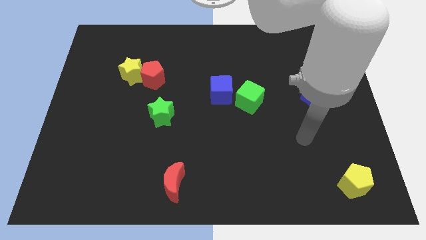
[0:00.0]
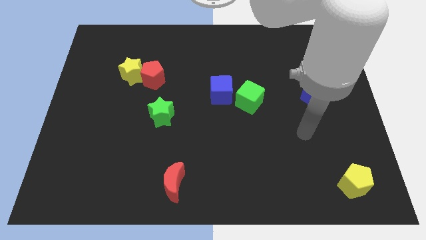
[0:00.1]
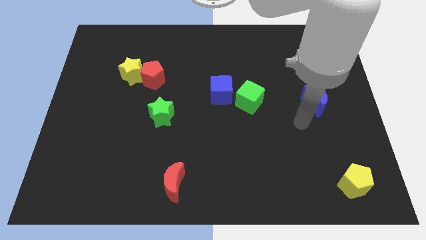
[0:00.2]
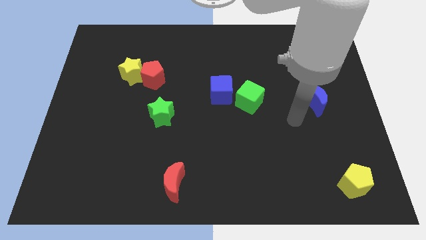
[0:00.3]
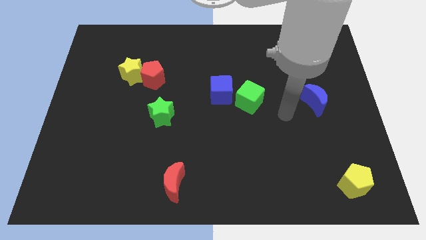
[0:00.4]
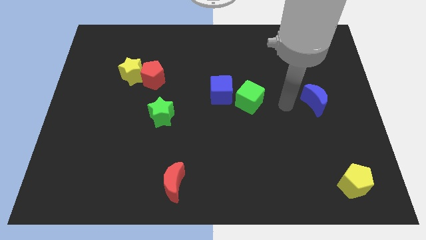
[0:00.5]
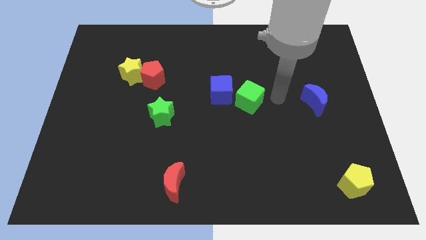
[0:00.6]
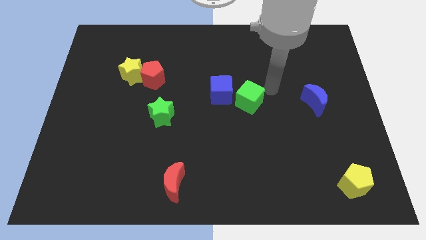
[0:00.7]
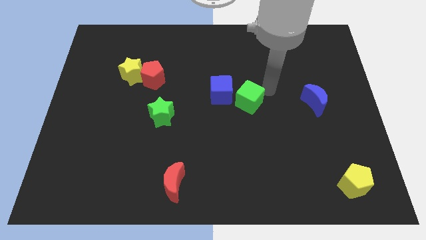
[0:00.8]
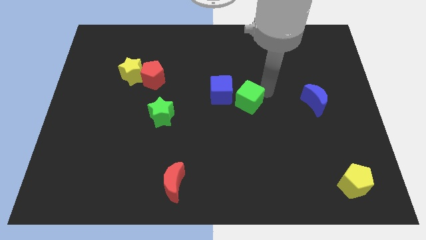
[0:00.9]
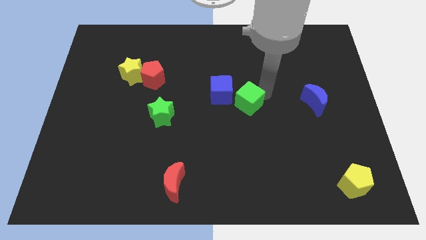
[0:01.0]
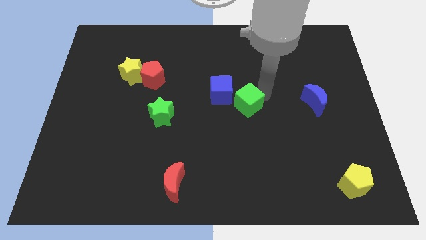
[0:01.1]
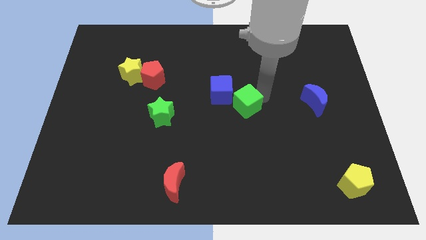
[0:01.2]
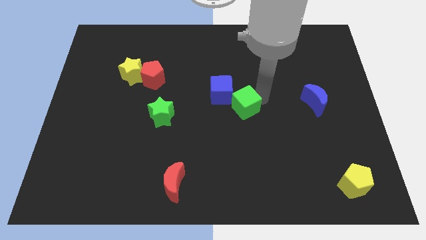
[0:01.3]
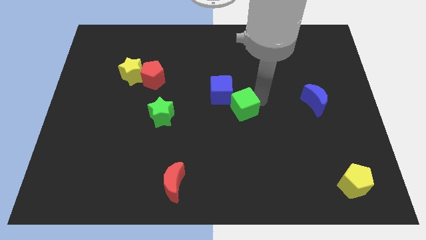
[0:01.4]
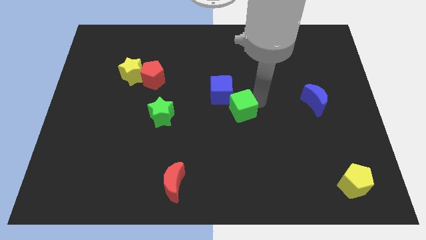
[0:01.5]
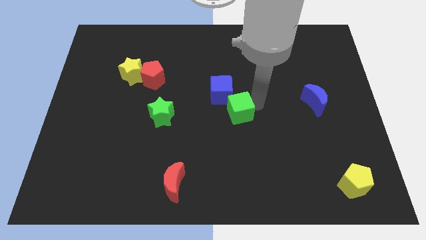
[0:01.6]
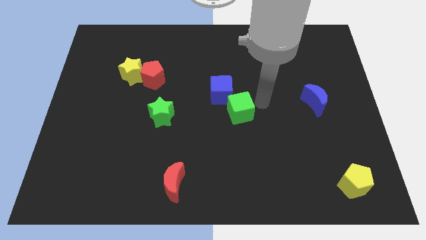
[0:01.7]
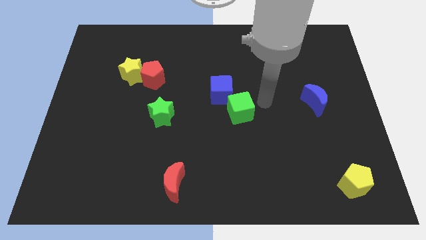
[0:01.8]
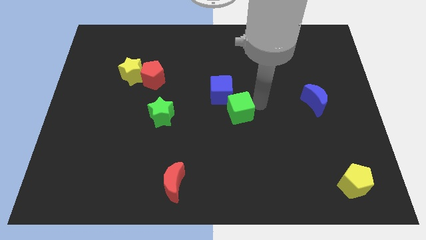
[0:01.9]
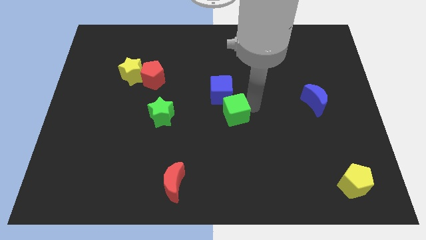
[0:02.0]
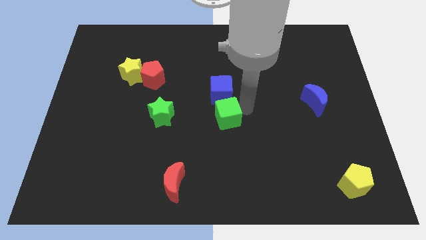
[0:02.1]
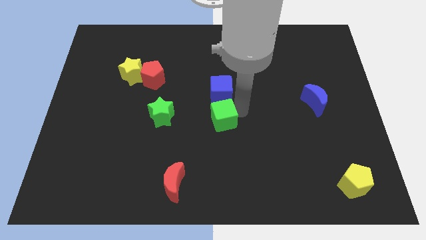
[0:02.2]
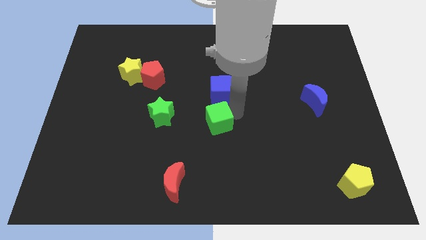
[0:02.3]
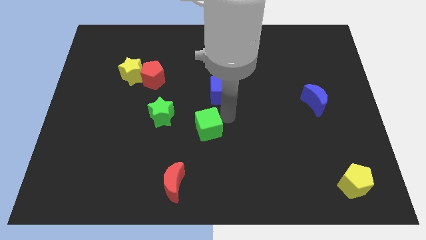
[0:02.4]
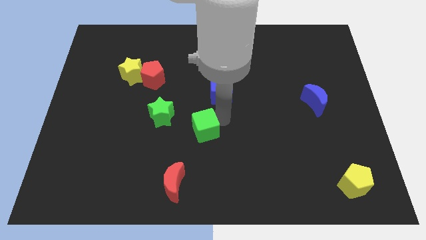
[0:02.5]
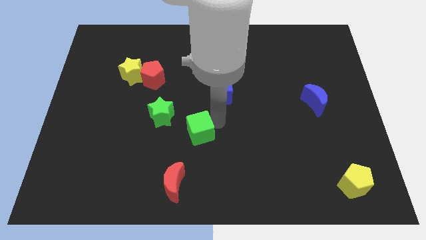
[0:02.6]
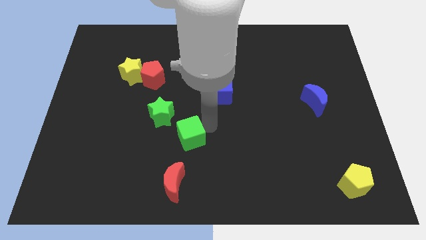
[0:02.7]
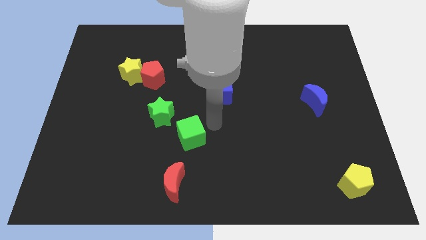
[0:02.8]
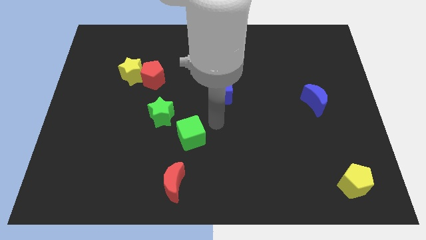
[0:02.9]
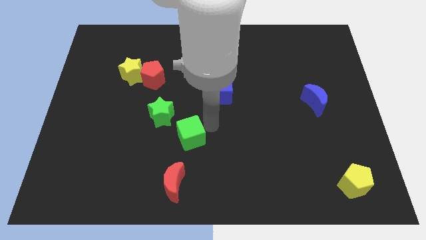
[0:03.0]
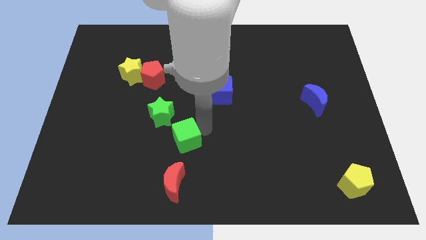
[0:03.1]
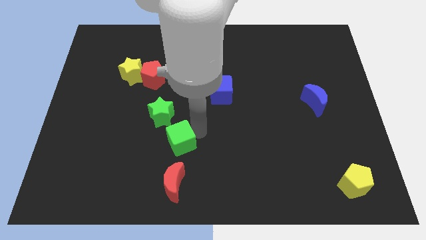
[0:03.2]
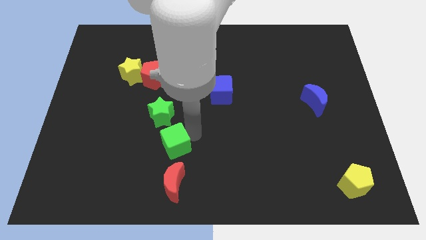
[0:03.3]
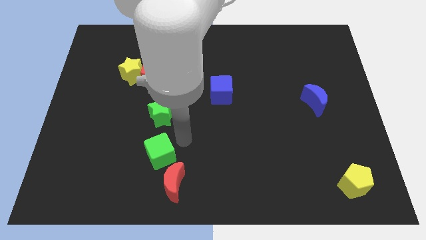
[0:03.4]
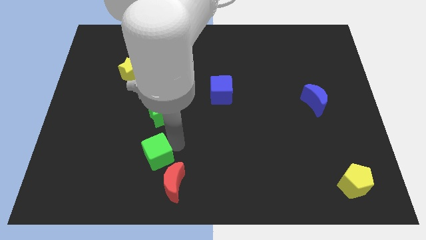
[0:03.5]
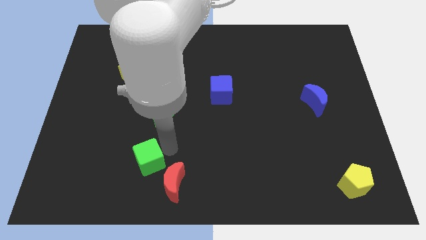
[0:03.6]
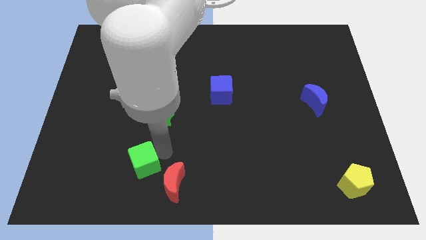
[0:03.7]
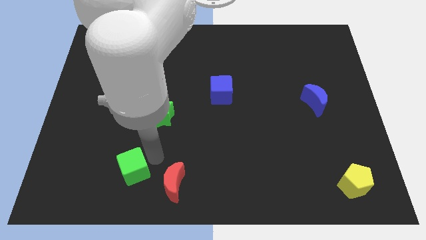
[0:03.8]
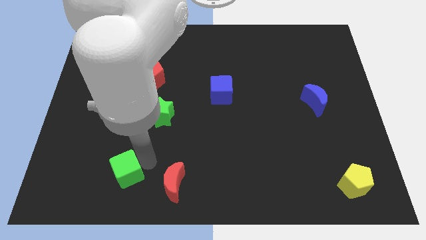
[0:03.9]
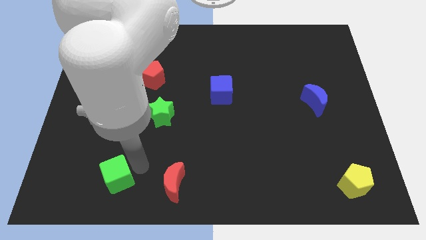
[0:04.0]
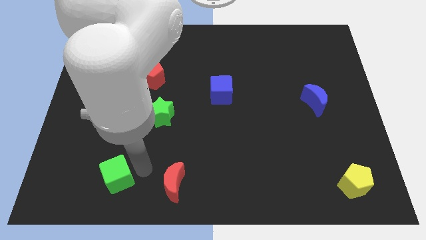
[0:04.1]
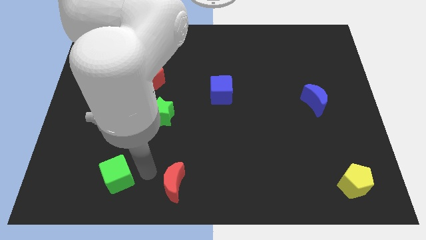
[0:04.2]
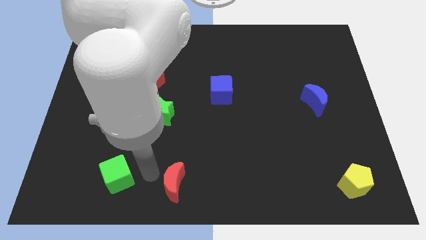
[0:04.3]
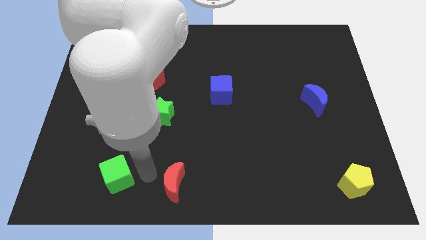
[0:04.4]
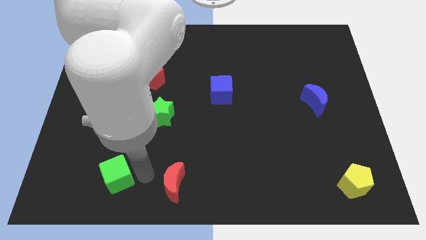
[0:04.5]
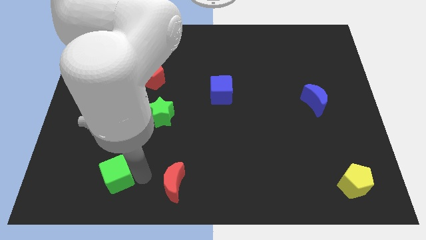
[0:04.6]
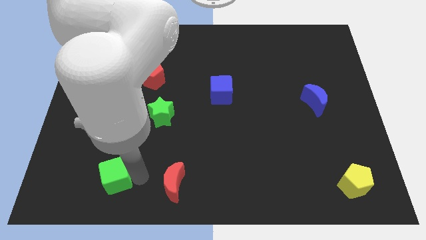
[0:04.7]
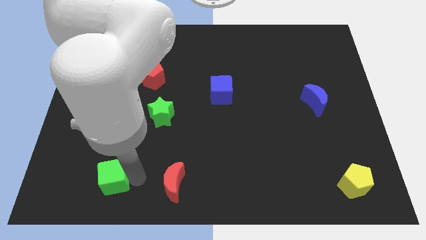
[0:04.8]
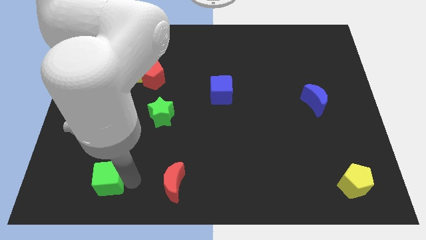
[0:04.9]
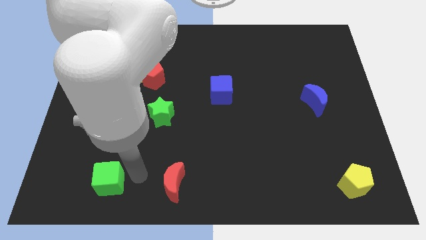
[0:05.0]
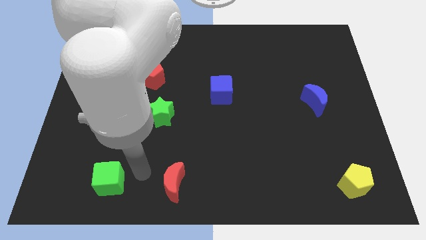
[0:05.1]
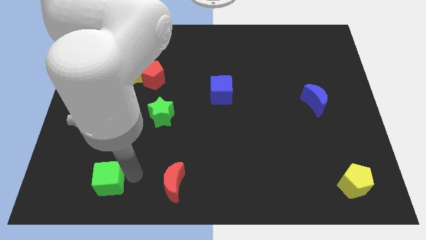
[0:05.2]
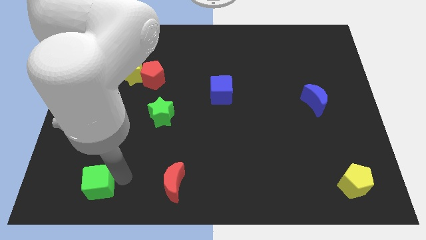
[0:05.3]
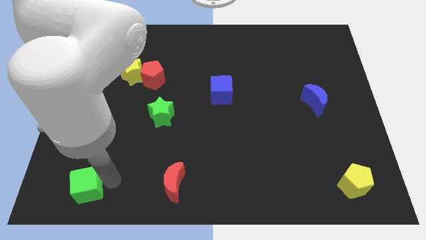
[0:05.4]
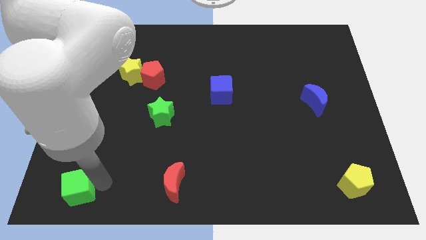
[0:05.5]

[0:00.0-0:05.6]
move the green cube to the bottom left corner
